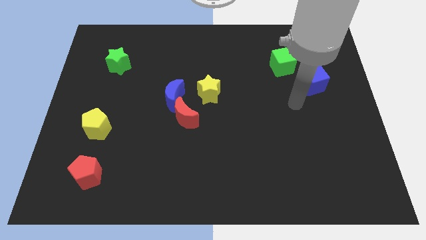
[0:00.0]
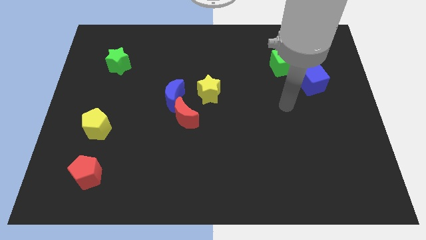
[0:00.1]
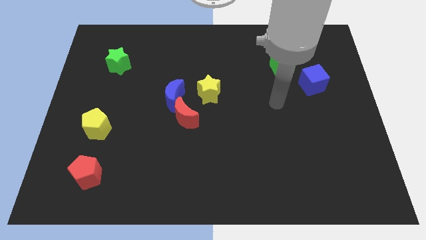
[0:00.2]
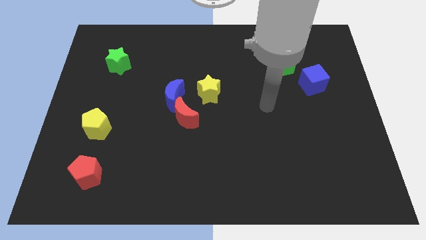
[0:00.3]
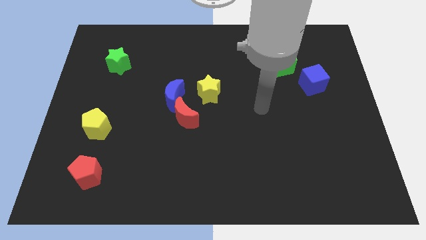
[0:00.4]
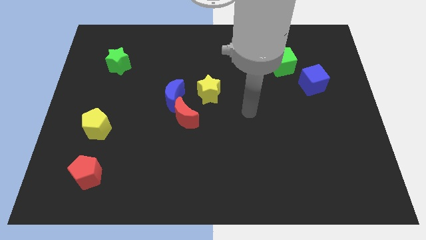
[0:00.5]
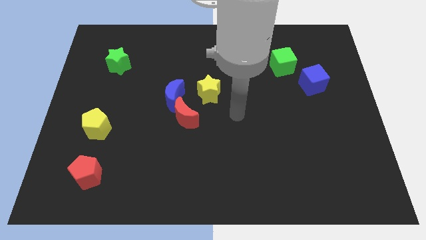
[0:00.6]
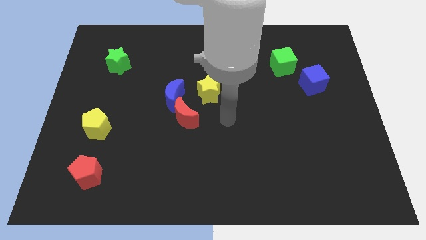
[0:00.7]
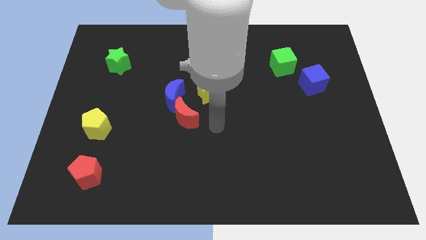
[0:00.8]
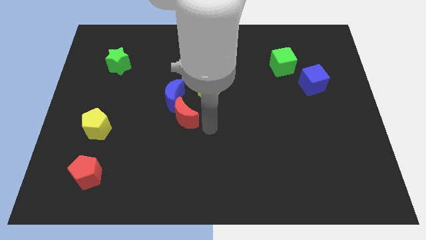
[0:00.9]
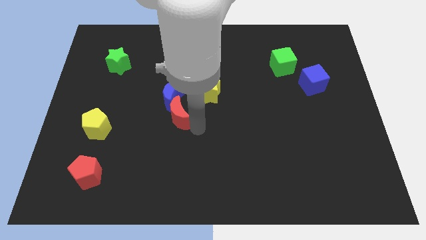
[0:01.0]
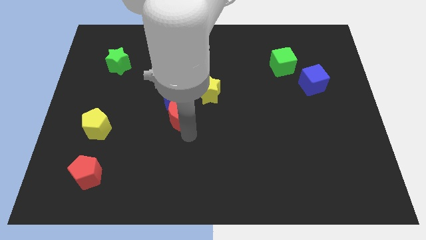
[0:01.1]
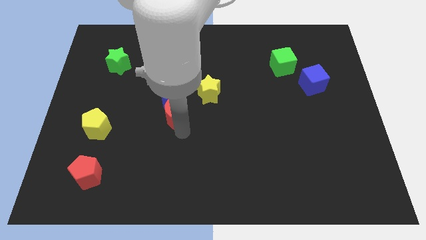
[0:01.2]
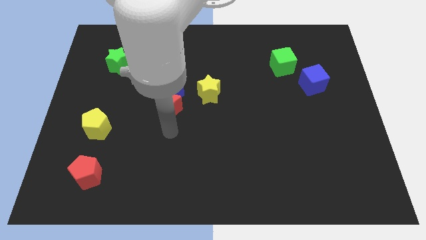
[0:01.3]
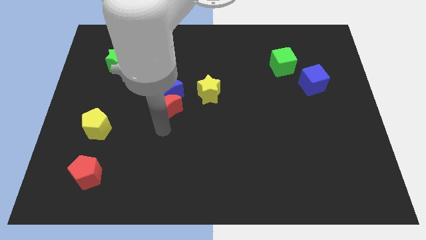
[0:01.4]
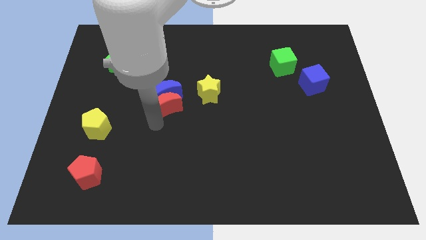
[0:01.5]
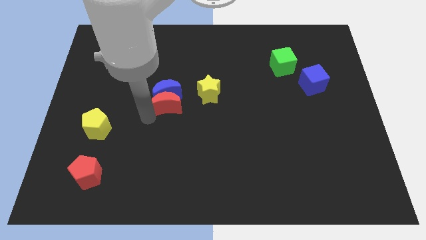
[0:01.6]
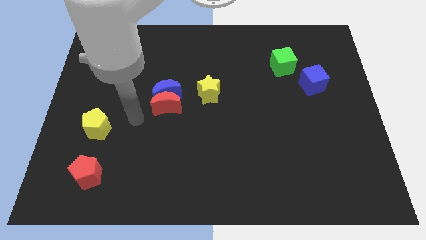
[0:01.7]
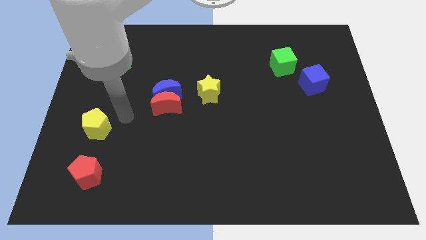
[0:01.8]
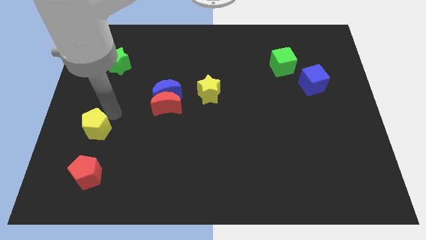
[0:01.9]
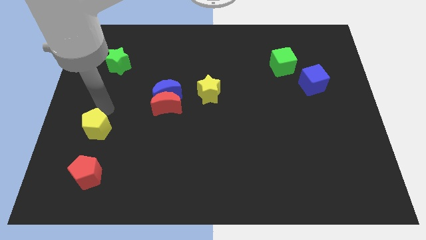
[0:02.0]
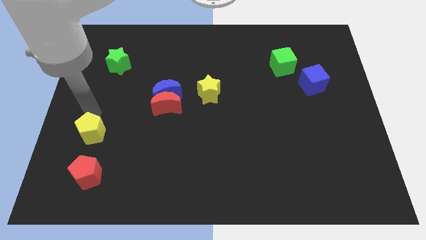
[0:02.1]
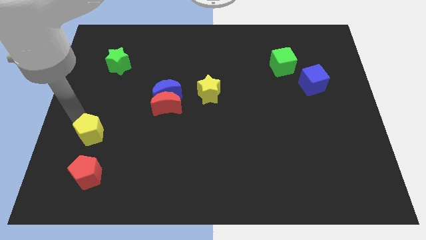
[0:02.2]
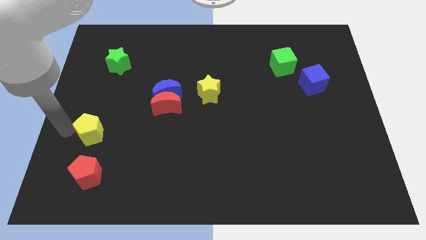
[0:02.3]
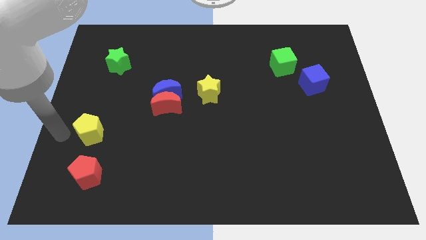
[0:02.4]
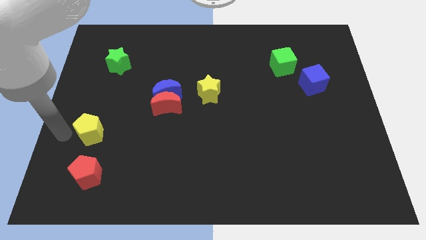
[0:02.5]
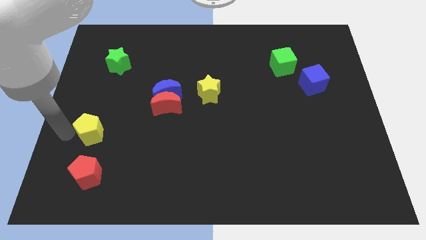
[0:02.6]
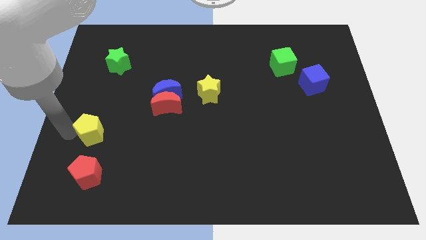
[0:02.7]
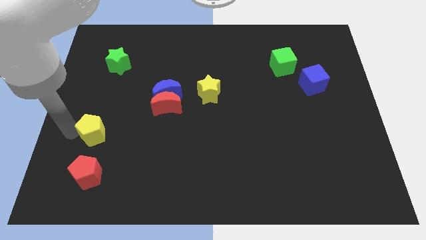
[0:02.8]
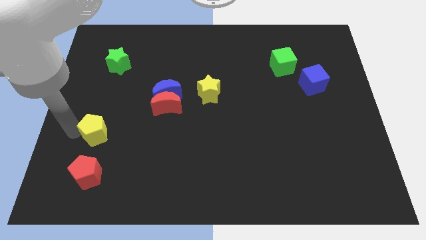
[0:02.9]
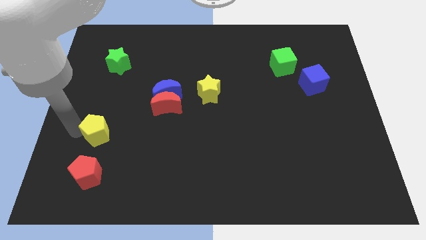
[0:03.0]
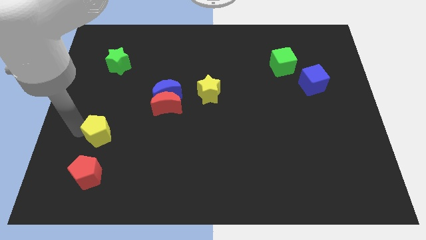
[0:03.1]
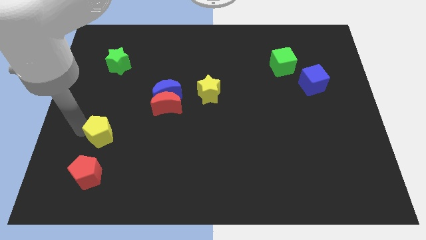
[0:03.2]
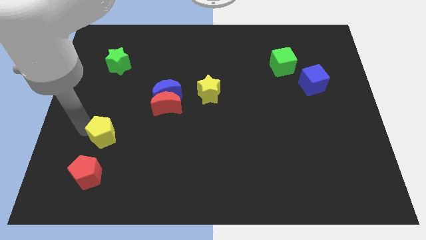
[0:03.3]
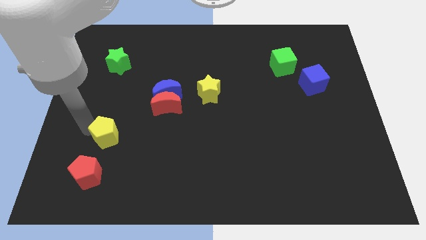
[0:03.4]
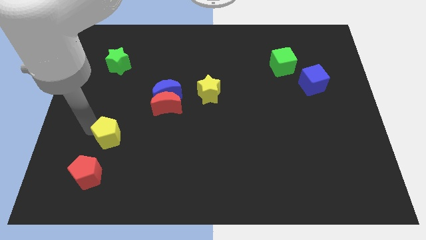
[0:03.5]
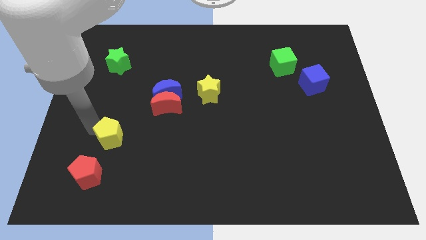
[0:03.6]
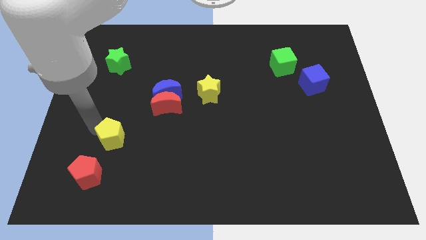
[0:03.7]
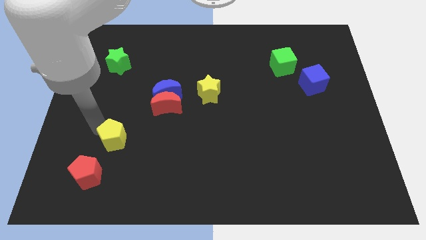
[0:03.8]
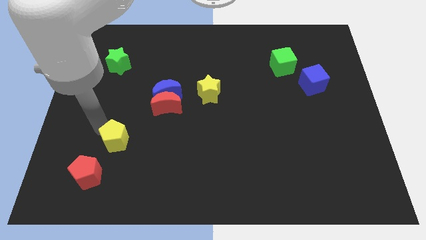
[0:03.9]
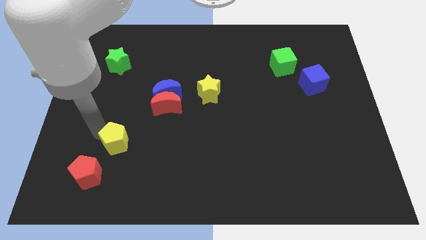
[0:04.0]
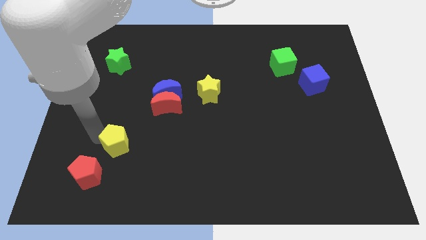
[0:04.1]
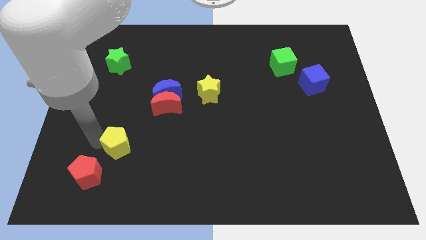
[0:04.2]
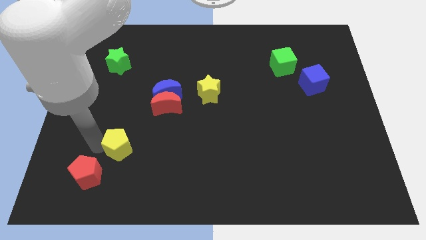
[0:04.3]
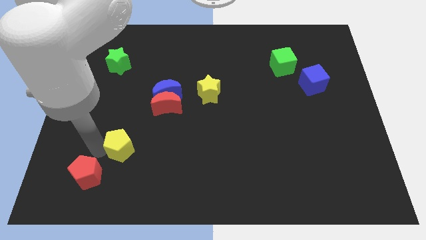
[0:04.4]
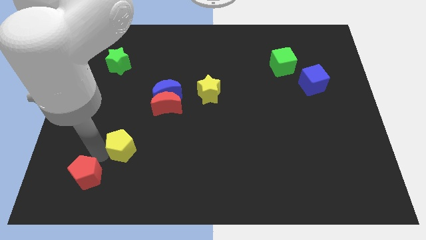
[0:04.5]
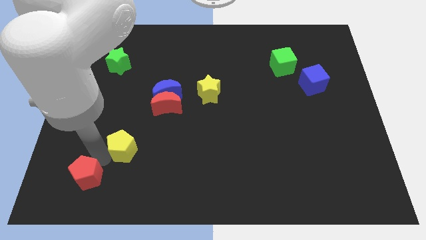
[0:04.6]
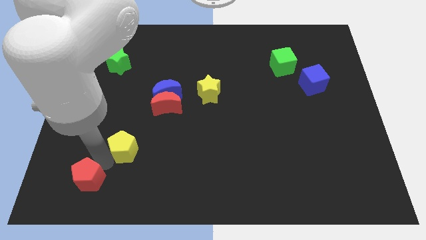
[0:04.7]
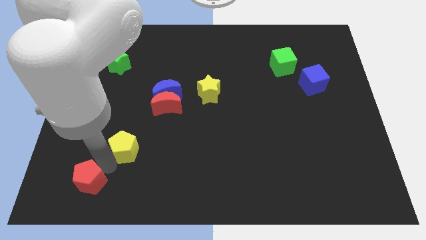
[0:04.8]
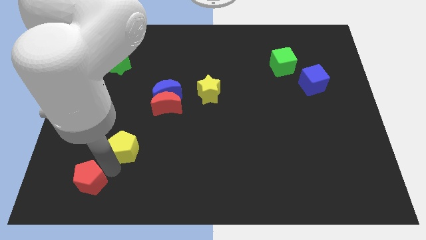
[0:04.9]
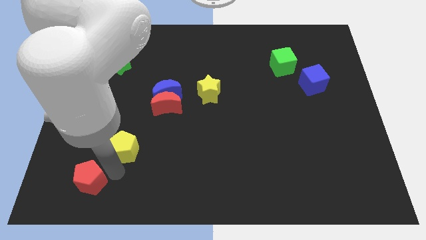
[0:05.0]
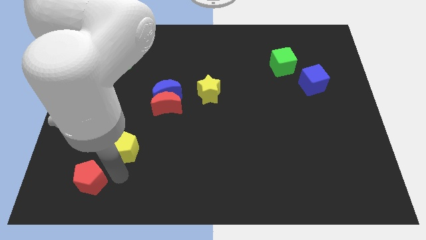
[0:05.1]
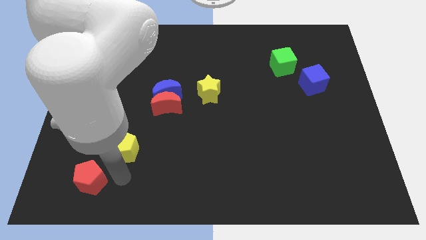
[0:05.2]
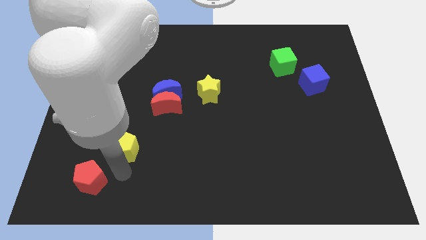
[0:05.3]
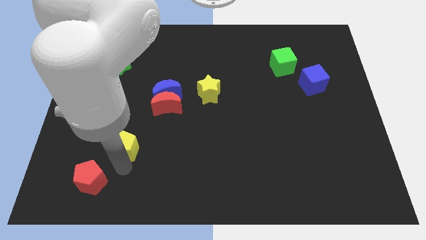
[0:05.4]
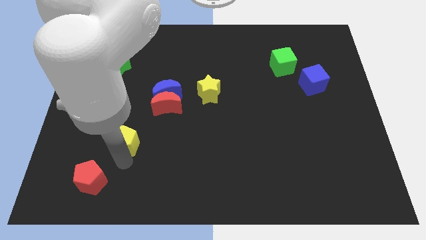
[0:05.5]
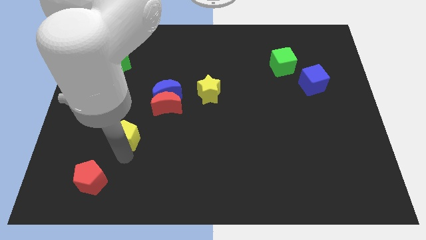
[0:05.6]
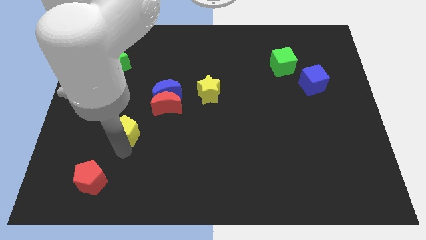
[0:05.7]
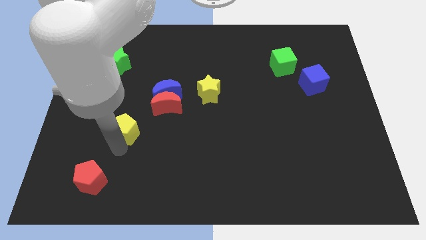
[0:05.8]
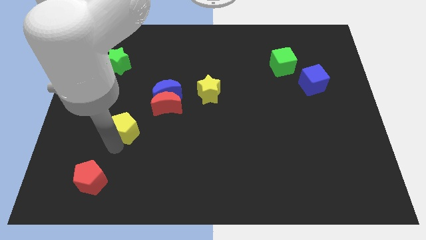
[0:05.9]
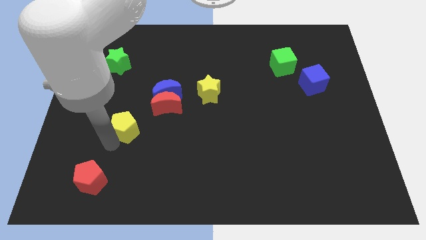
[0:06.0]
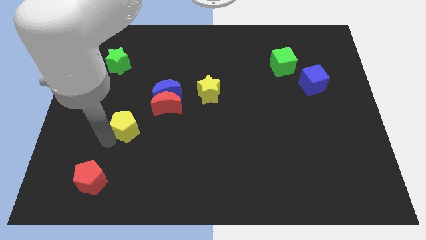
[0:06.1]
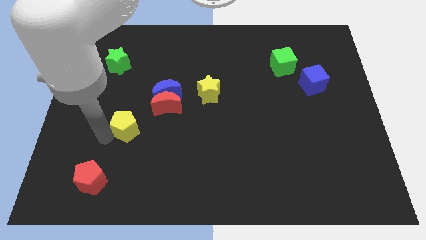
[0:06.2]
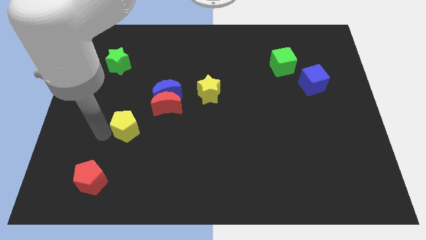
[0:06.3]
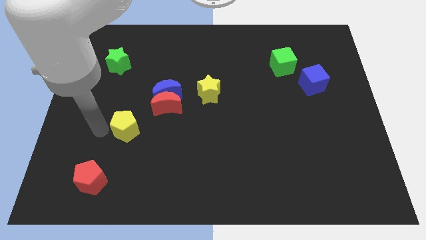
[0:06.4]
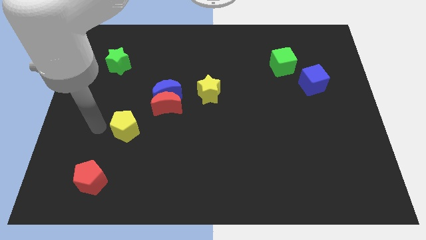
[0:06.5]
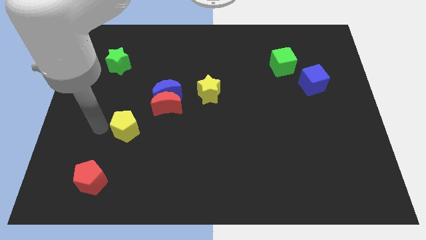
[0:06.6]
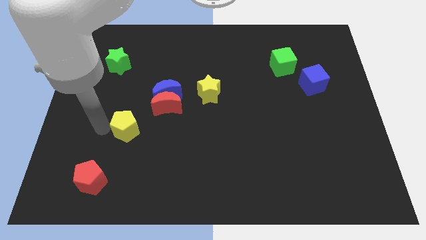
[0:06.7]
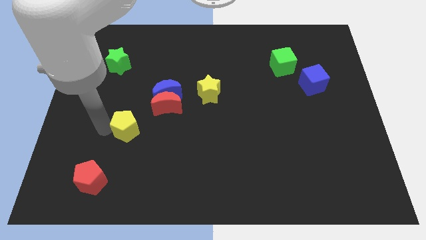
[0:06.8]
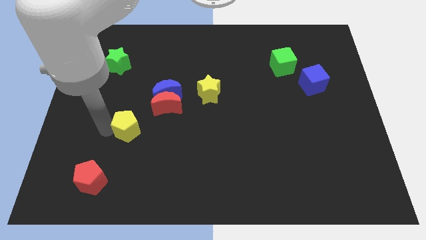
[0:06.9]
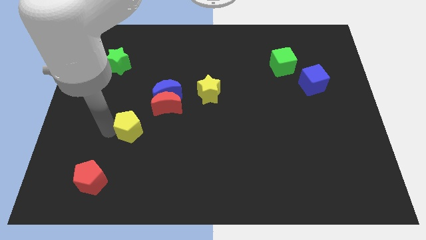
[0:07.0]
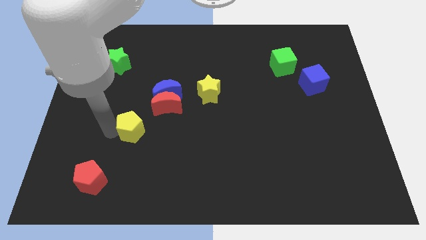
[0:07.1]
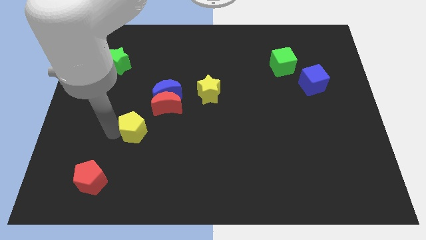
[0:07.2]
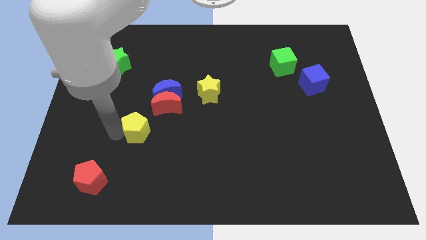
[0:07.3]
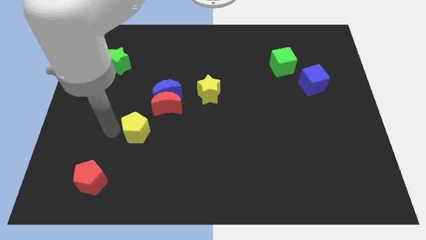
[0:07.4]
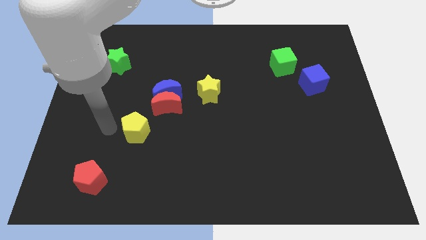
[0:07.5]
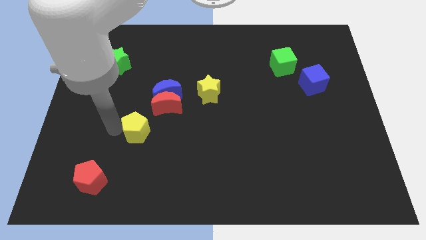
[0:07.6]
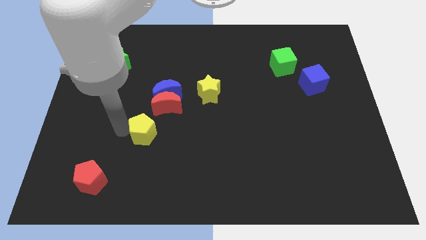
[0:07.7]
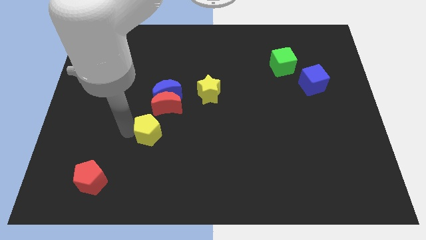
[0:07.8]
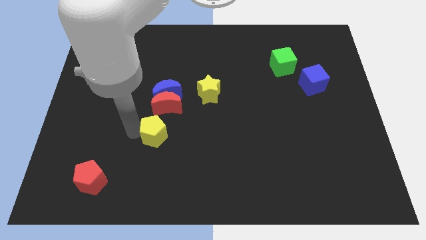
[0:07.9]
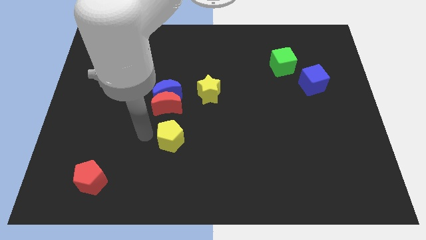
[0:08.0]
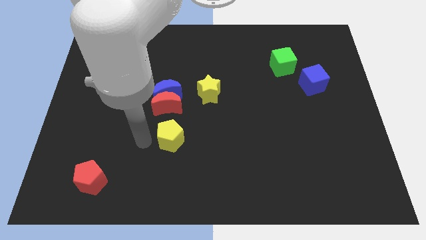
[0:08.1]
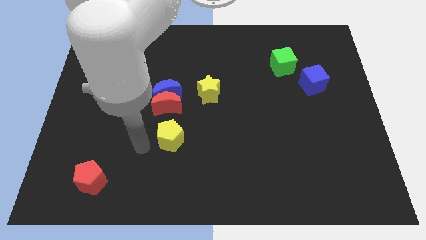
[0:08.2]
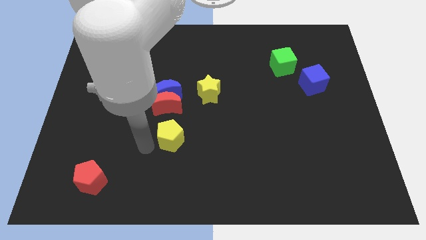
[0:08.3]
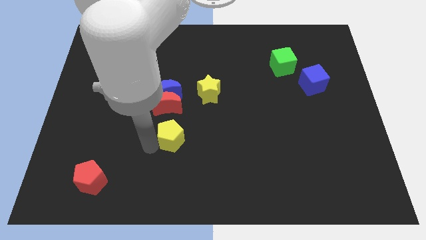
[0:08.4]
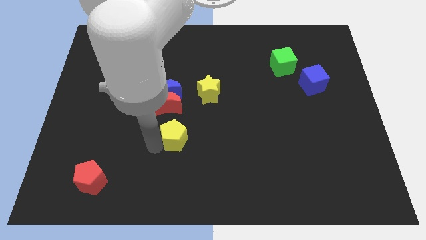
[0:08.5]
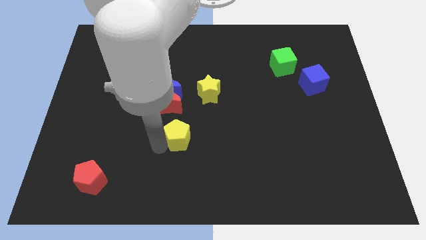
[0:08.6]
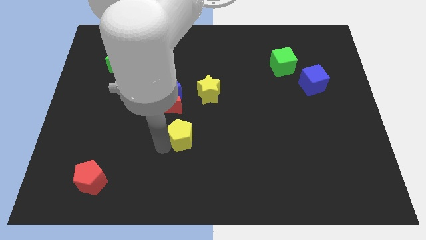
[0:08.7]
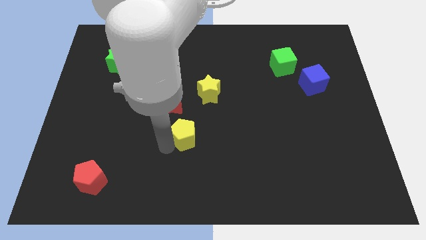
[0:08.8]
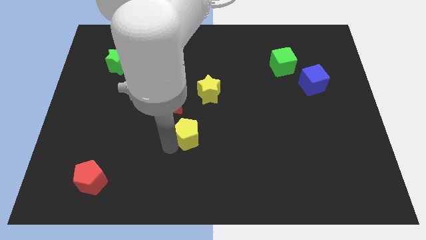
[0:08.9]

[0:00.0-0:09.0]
push the yellow pentagon below the yellow star
